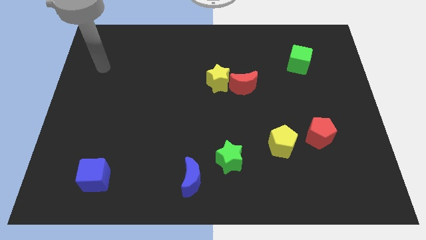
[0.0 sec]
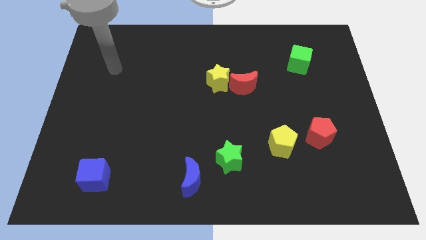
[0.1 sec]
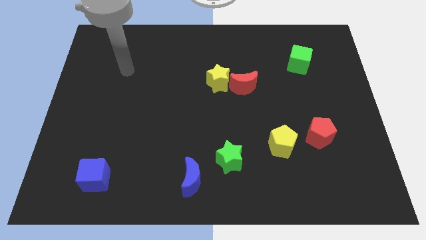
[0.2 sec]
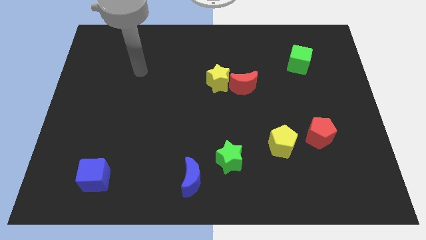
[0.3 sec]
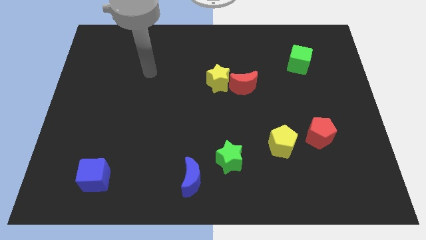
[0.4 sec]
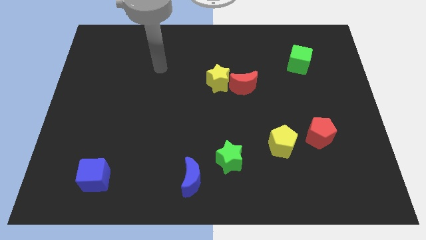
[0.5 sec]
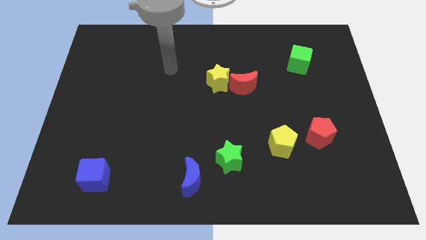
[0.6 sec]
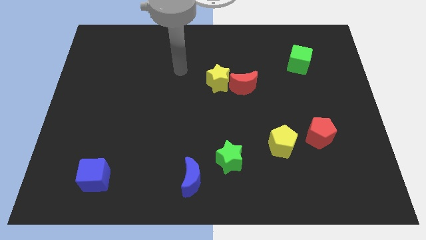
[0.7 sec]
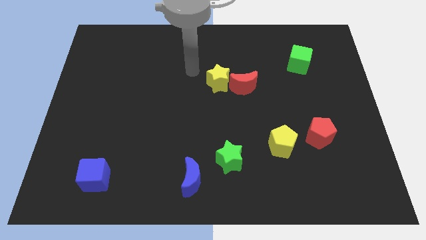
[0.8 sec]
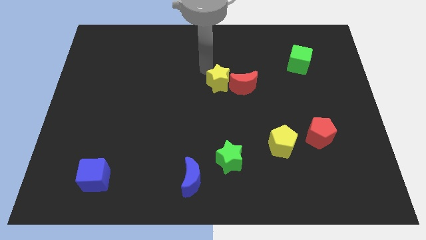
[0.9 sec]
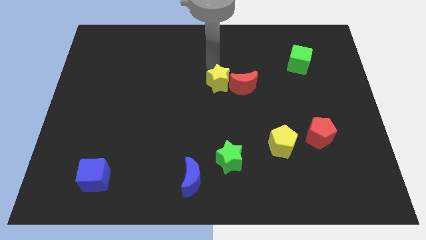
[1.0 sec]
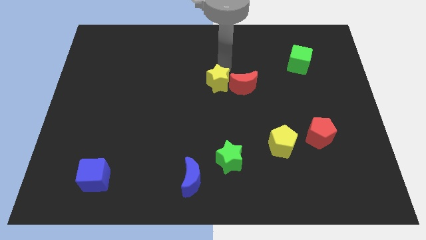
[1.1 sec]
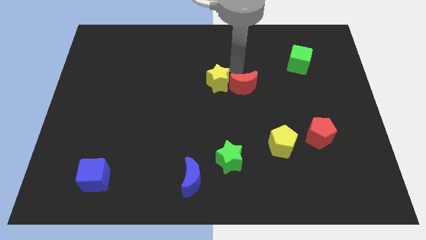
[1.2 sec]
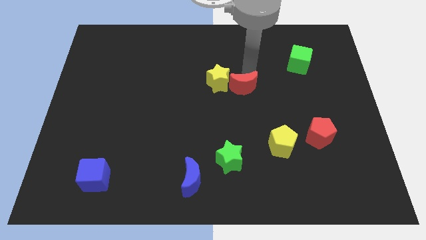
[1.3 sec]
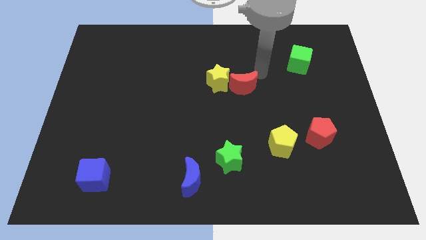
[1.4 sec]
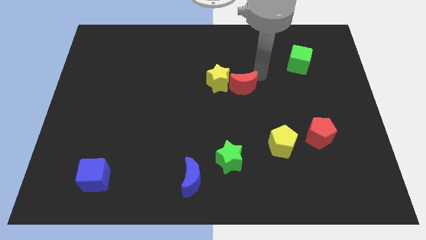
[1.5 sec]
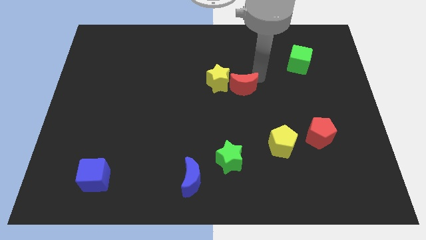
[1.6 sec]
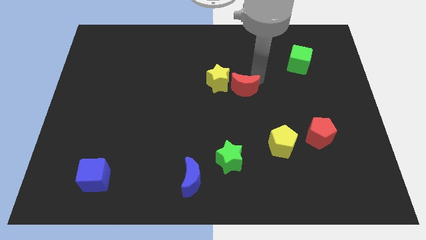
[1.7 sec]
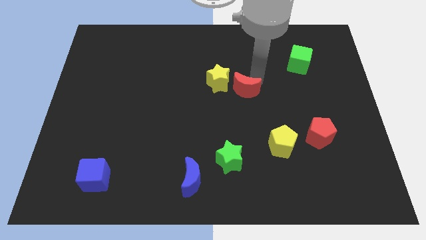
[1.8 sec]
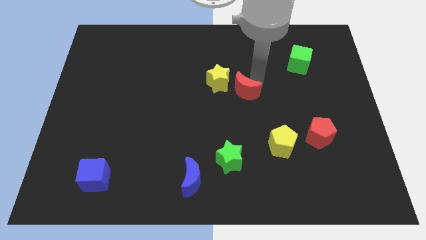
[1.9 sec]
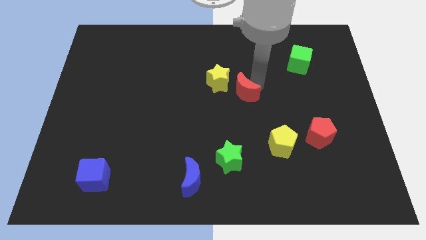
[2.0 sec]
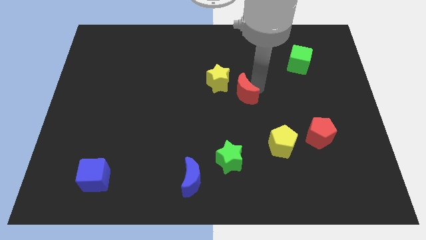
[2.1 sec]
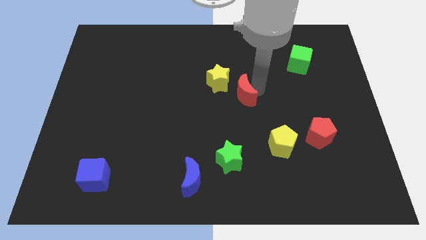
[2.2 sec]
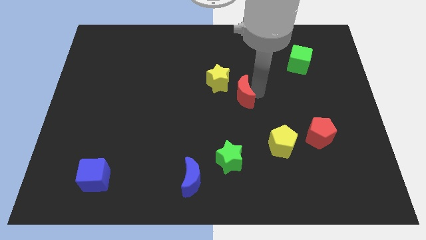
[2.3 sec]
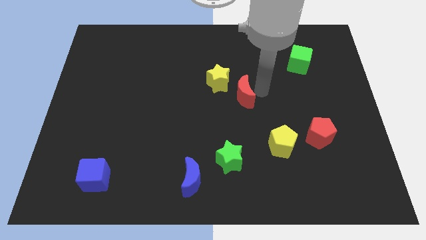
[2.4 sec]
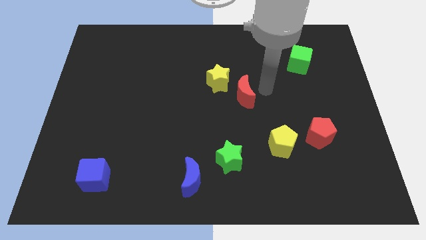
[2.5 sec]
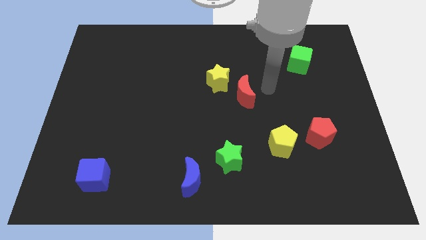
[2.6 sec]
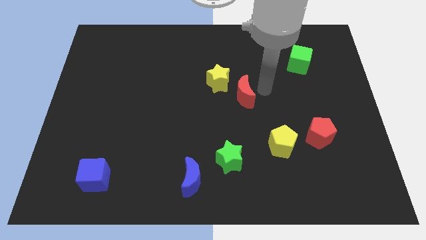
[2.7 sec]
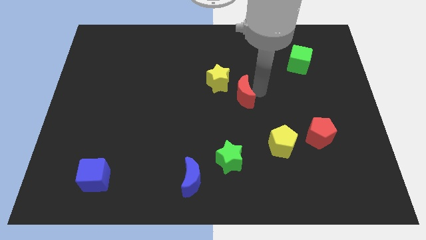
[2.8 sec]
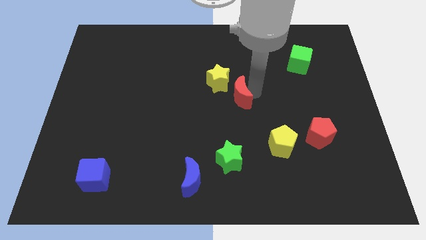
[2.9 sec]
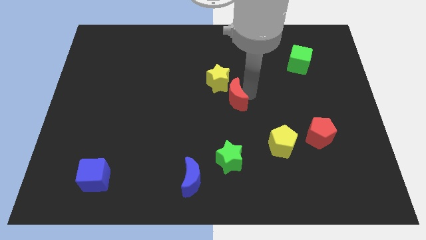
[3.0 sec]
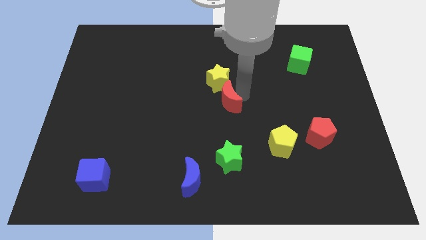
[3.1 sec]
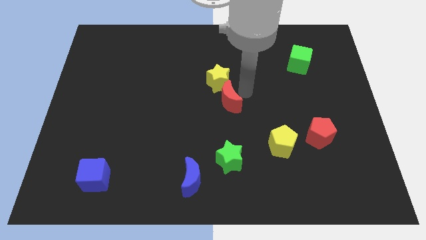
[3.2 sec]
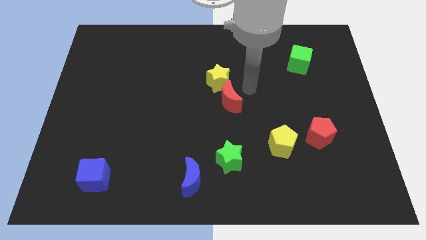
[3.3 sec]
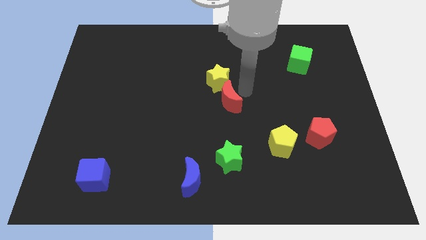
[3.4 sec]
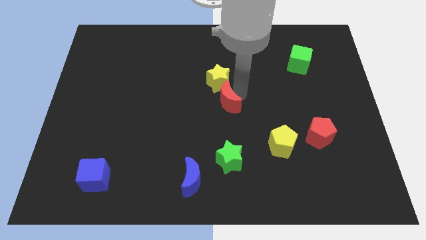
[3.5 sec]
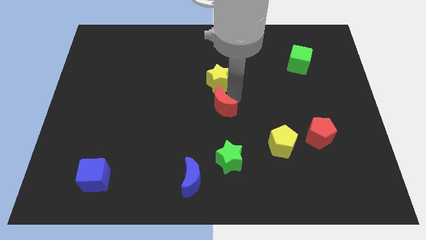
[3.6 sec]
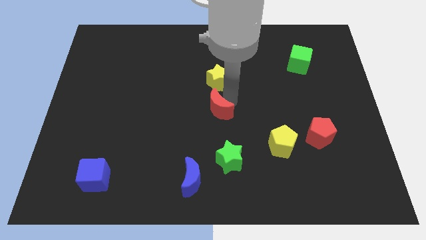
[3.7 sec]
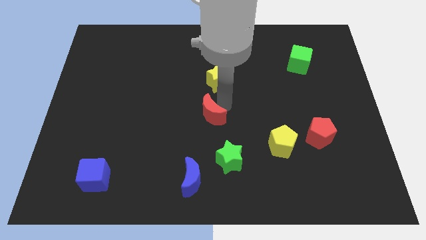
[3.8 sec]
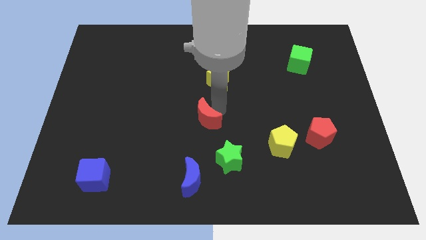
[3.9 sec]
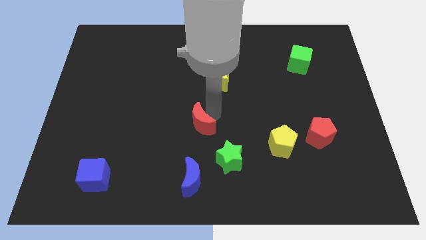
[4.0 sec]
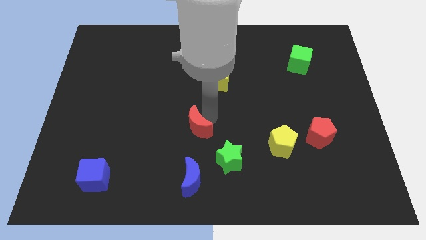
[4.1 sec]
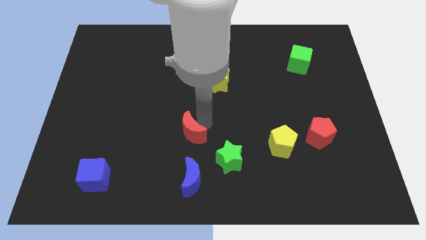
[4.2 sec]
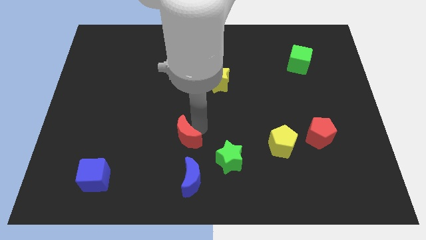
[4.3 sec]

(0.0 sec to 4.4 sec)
push the red moon down and to the left

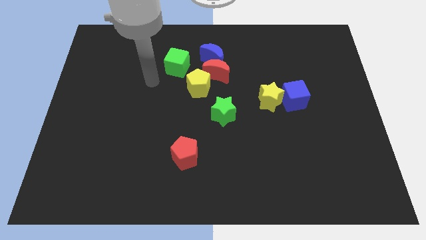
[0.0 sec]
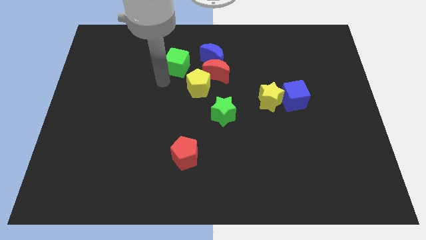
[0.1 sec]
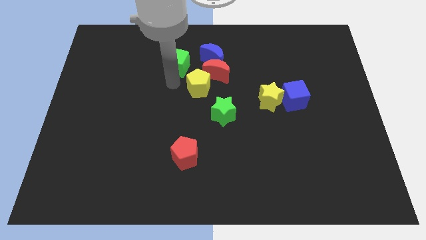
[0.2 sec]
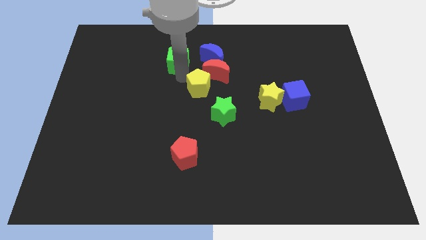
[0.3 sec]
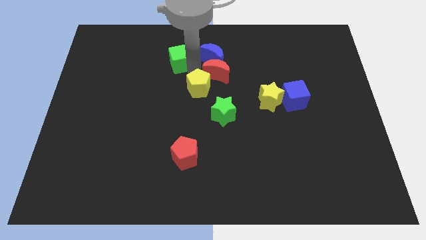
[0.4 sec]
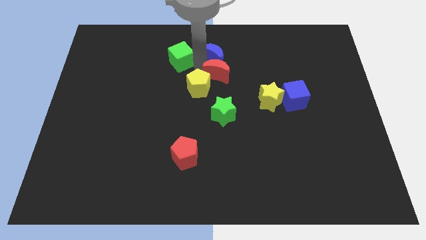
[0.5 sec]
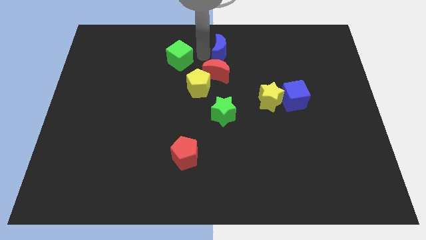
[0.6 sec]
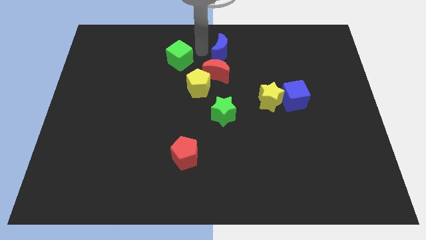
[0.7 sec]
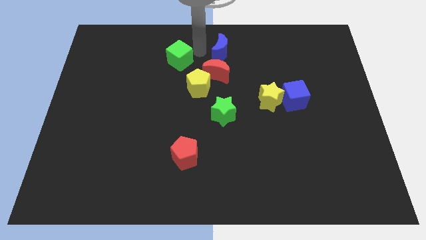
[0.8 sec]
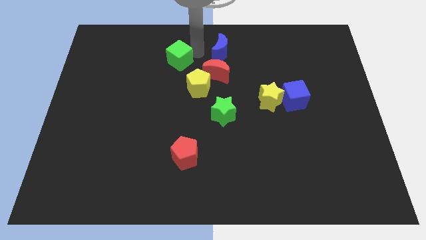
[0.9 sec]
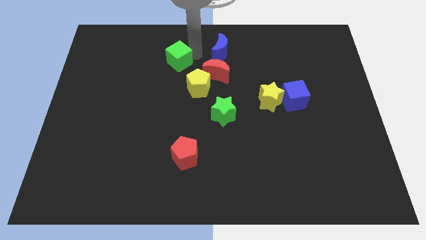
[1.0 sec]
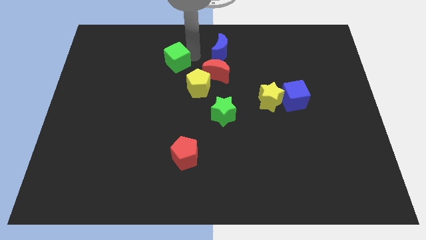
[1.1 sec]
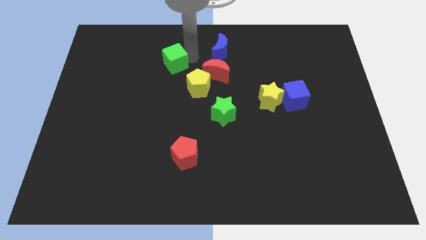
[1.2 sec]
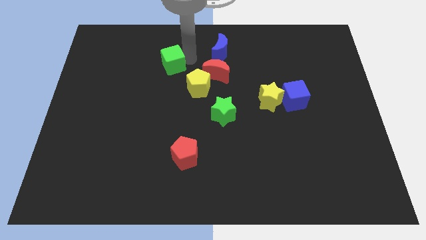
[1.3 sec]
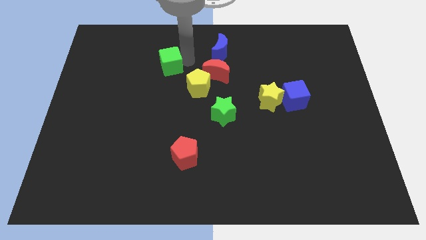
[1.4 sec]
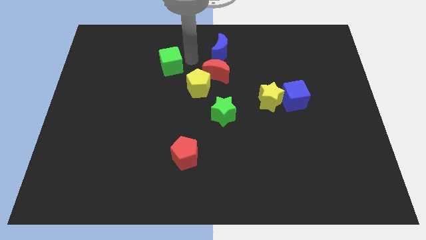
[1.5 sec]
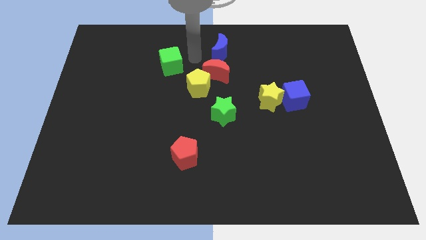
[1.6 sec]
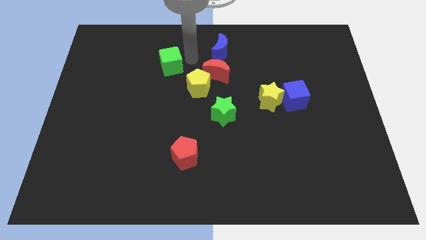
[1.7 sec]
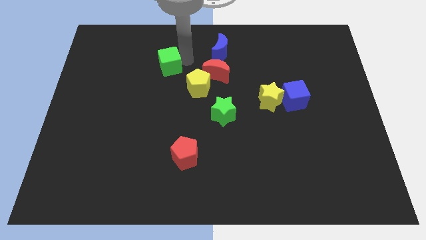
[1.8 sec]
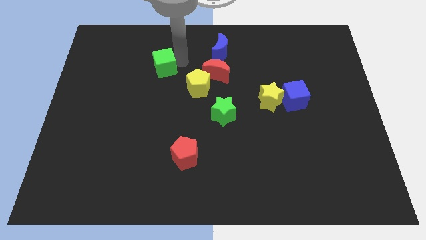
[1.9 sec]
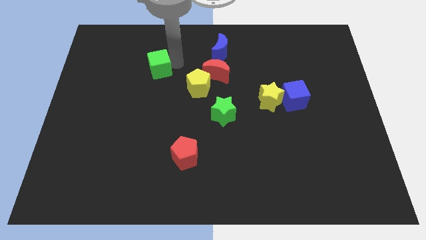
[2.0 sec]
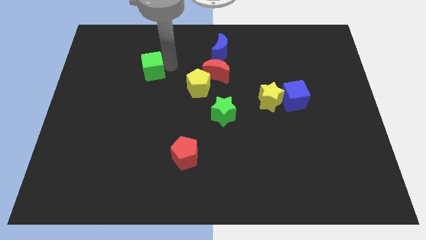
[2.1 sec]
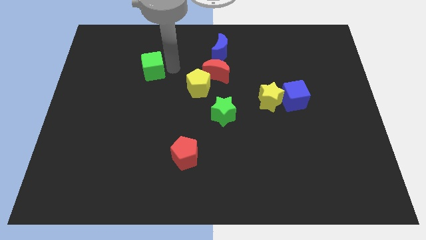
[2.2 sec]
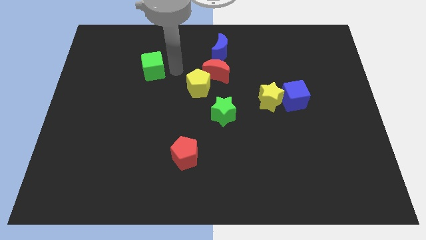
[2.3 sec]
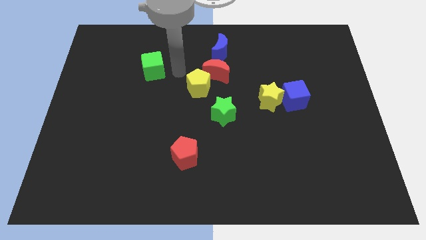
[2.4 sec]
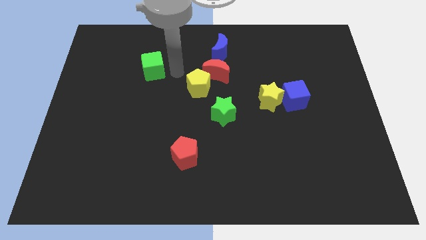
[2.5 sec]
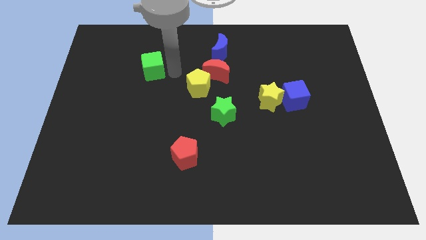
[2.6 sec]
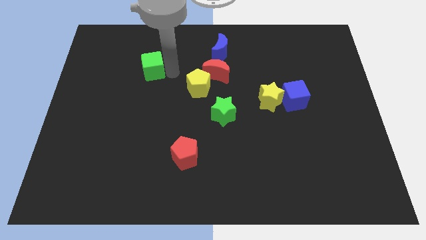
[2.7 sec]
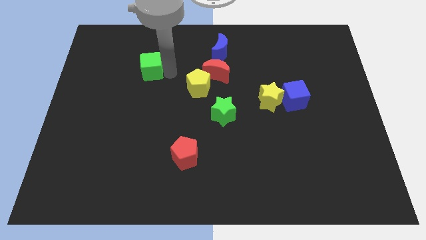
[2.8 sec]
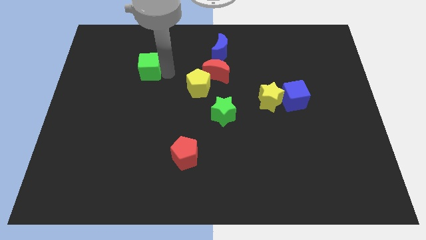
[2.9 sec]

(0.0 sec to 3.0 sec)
slide the green cube to the left a bit

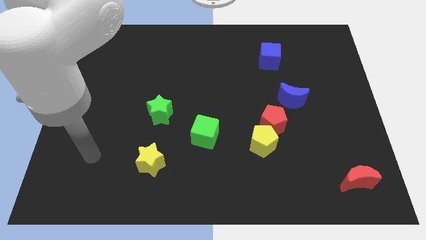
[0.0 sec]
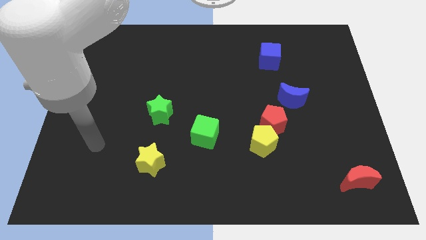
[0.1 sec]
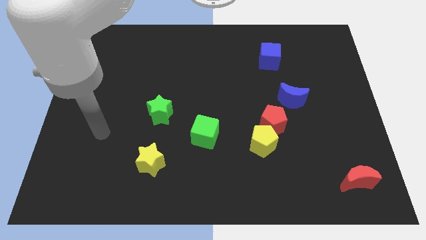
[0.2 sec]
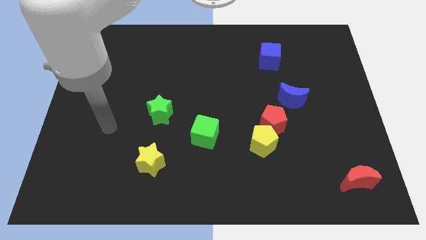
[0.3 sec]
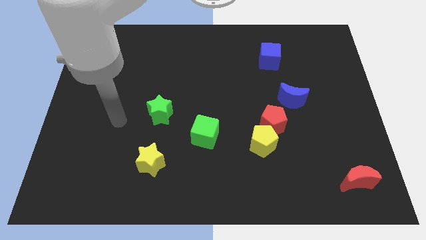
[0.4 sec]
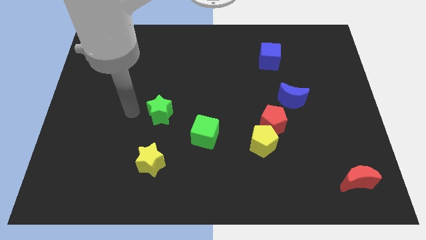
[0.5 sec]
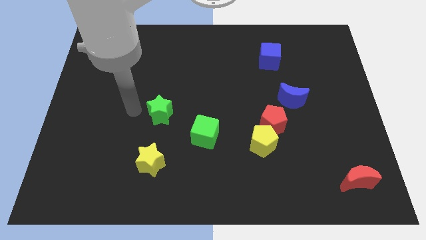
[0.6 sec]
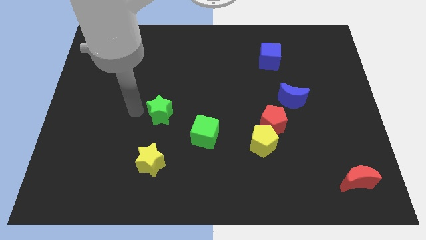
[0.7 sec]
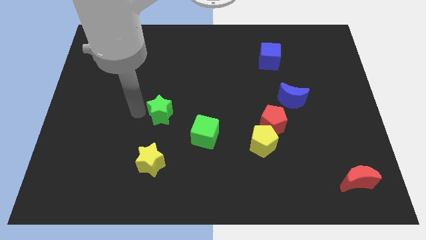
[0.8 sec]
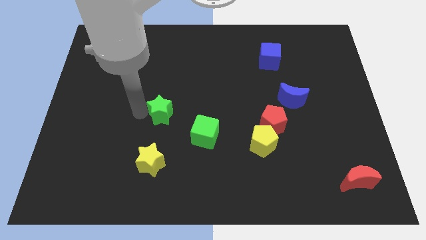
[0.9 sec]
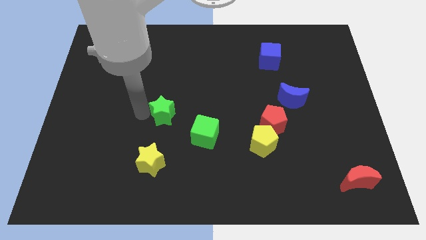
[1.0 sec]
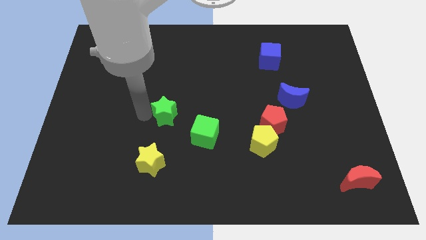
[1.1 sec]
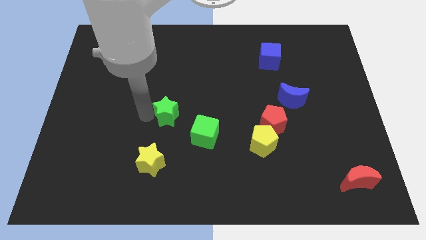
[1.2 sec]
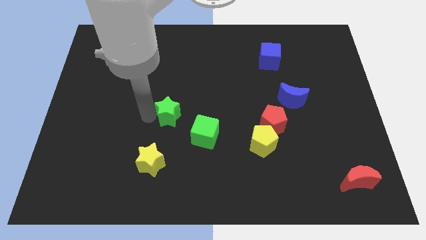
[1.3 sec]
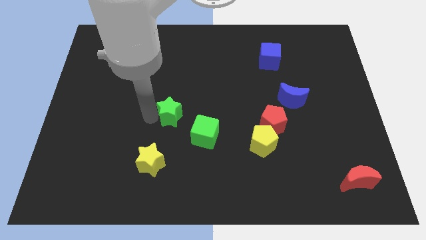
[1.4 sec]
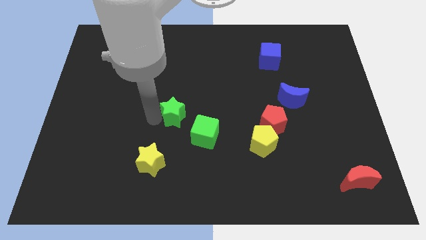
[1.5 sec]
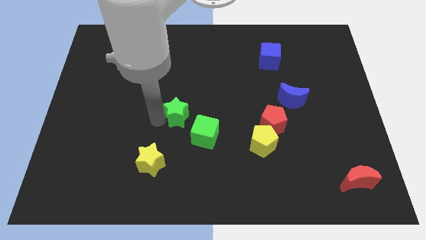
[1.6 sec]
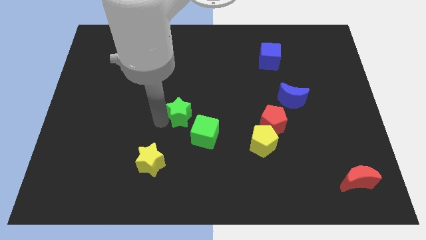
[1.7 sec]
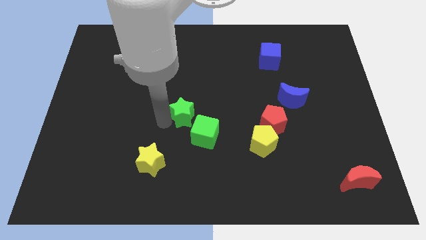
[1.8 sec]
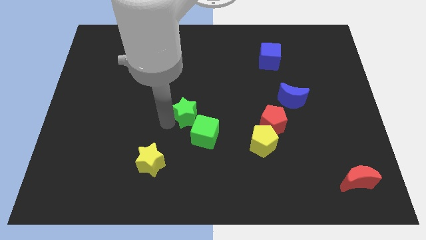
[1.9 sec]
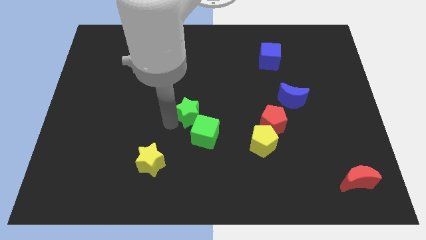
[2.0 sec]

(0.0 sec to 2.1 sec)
slide the green star somewhat right
